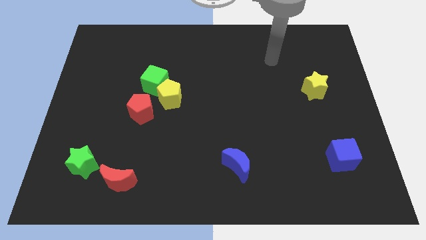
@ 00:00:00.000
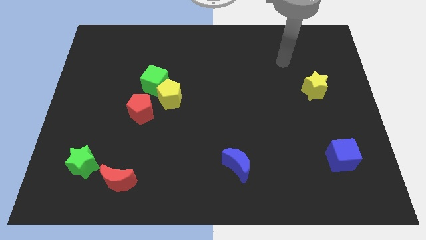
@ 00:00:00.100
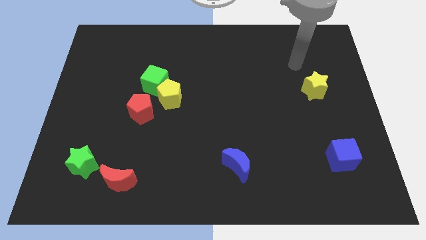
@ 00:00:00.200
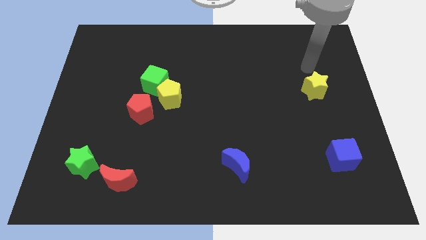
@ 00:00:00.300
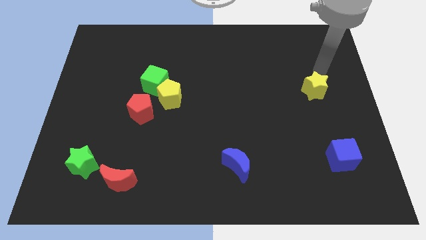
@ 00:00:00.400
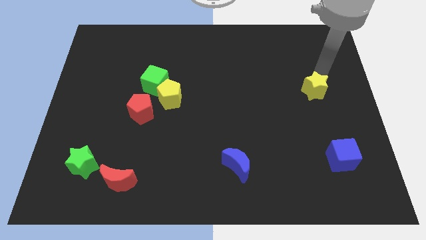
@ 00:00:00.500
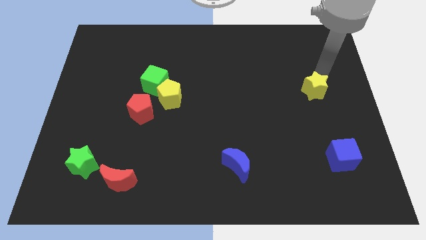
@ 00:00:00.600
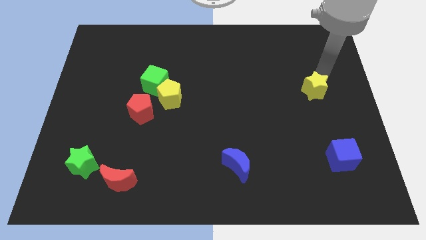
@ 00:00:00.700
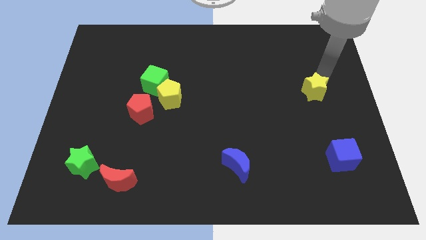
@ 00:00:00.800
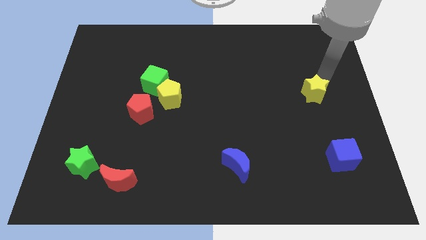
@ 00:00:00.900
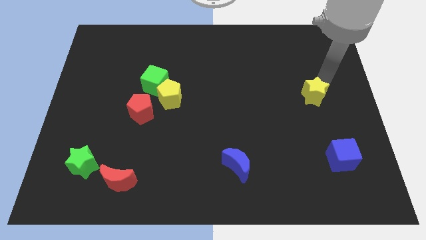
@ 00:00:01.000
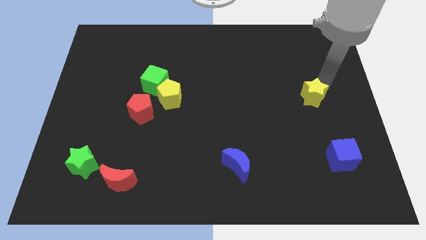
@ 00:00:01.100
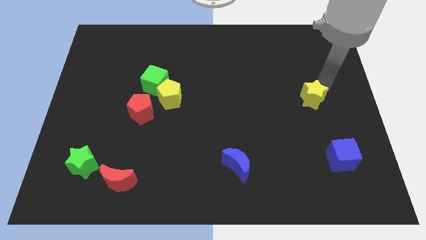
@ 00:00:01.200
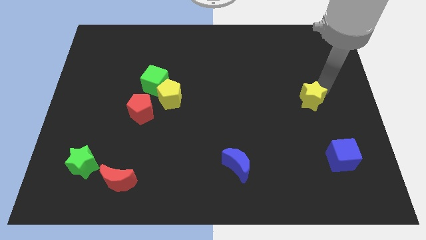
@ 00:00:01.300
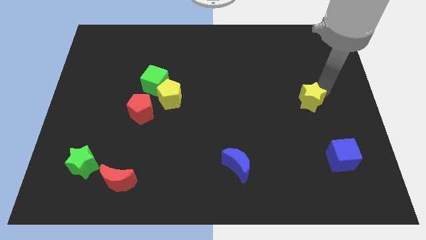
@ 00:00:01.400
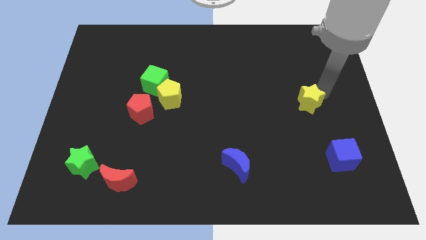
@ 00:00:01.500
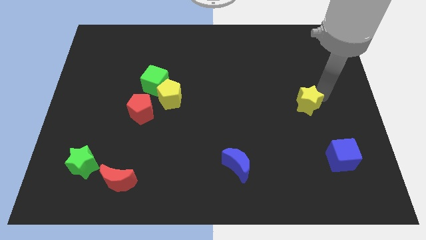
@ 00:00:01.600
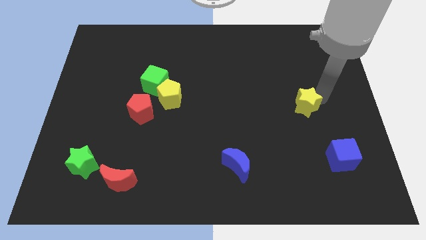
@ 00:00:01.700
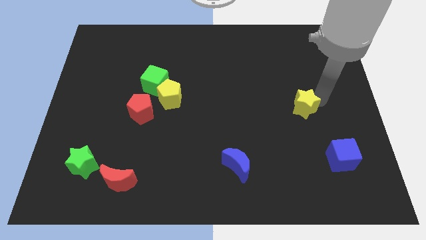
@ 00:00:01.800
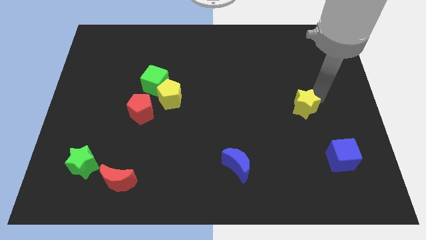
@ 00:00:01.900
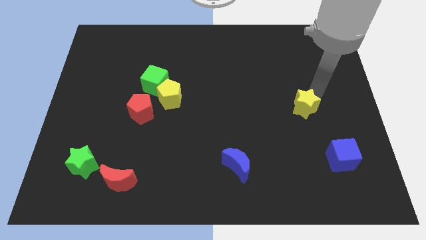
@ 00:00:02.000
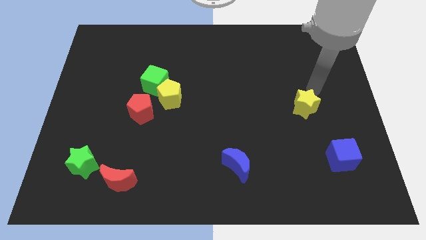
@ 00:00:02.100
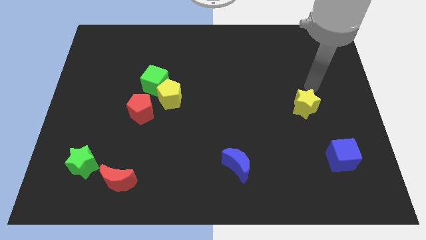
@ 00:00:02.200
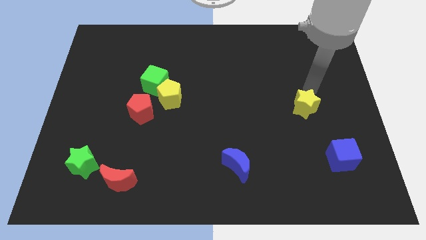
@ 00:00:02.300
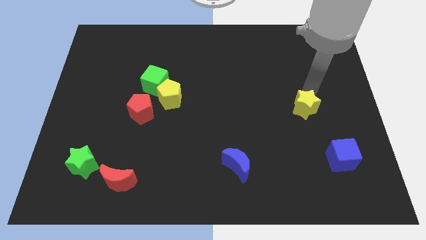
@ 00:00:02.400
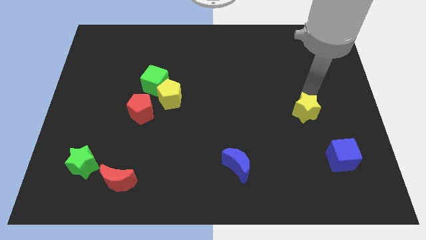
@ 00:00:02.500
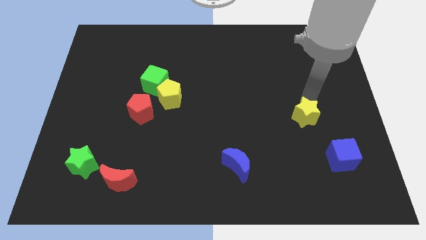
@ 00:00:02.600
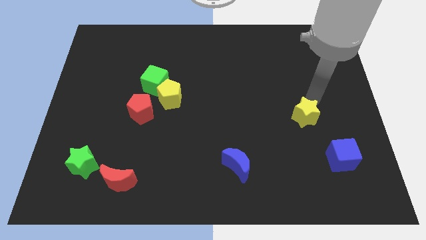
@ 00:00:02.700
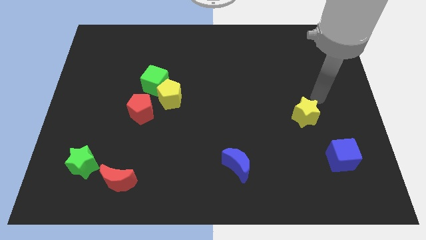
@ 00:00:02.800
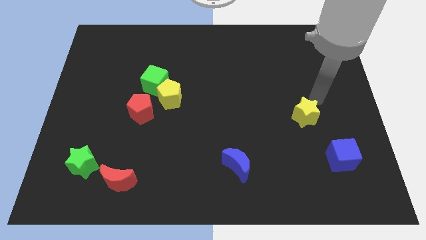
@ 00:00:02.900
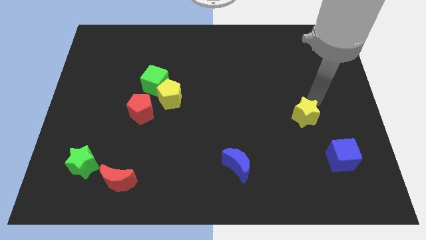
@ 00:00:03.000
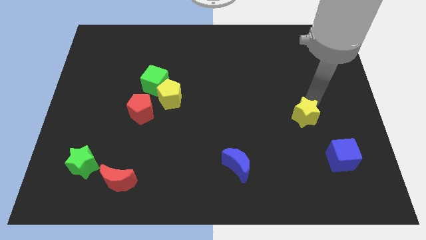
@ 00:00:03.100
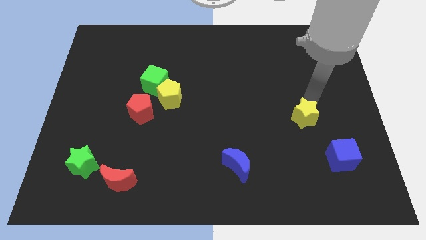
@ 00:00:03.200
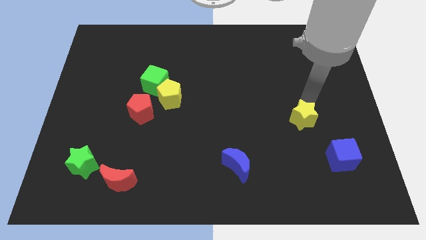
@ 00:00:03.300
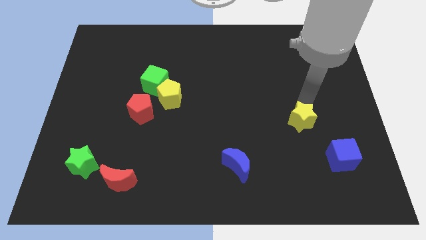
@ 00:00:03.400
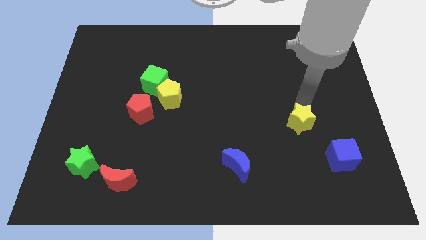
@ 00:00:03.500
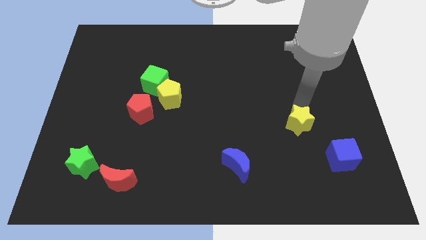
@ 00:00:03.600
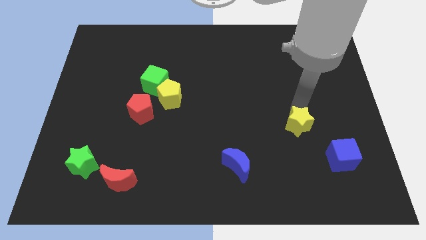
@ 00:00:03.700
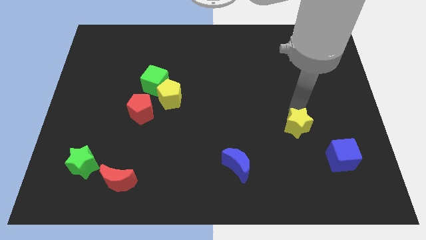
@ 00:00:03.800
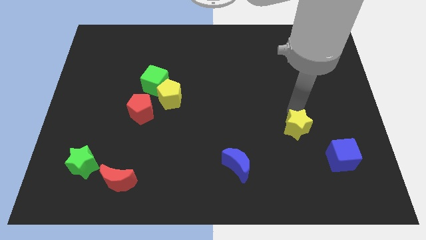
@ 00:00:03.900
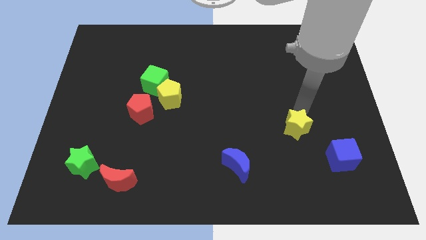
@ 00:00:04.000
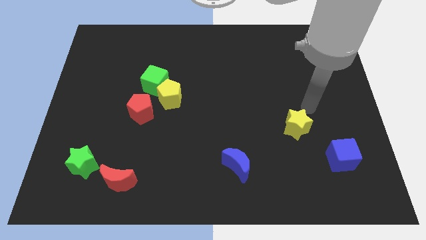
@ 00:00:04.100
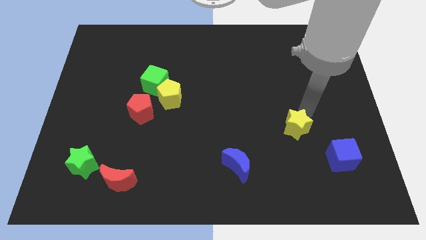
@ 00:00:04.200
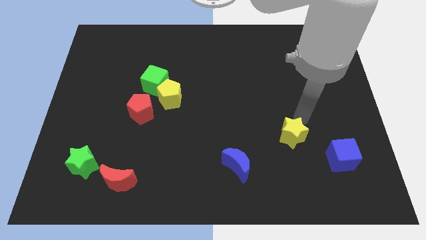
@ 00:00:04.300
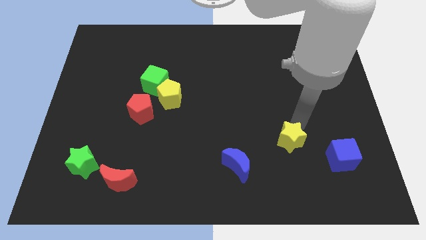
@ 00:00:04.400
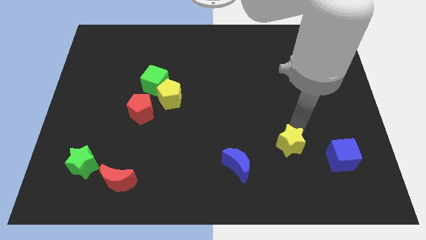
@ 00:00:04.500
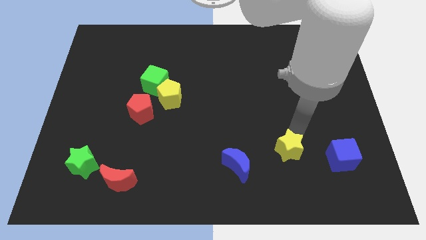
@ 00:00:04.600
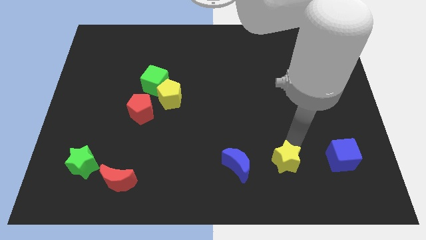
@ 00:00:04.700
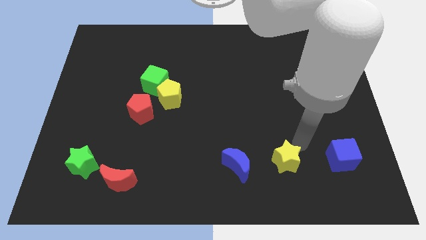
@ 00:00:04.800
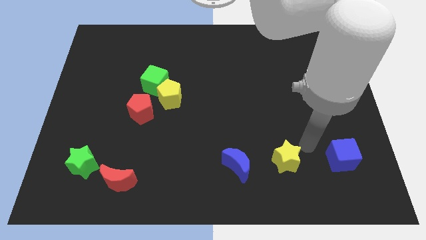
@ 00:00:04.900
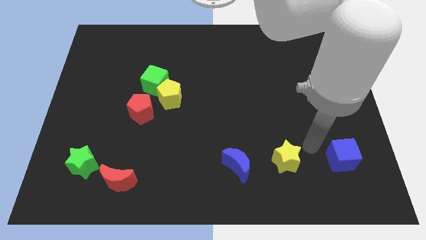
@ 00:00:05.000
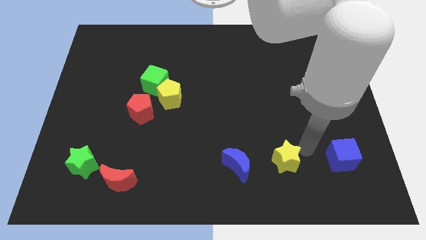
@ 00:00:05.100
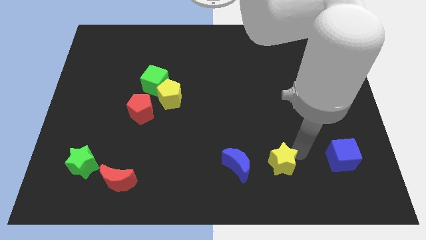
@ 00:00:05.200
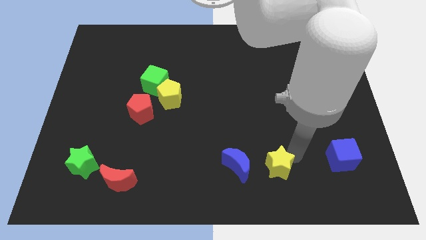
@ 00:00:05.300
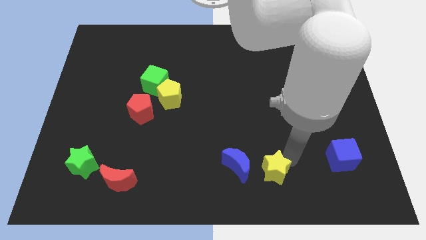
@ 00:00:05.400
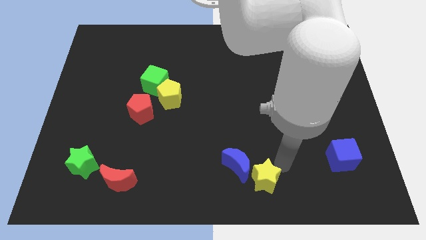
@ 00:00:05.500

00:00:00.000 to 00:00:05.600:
put the yellow star to the bottom
